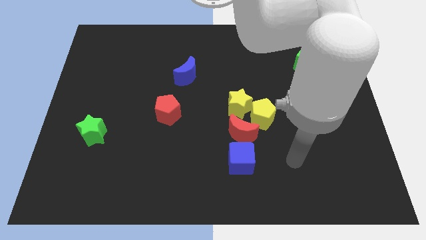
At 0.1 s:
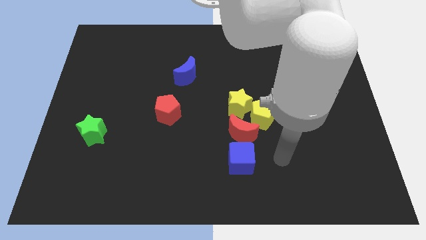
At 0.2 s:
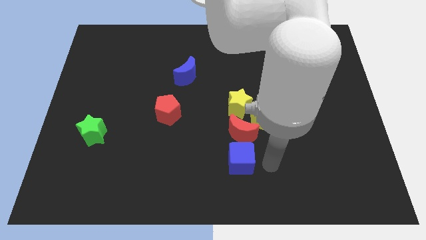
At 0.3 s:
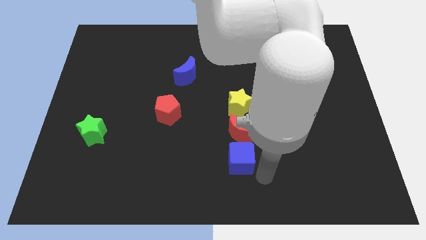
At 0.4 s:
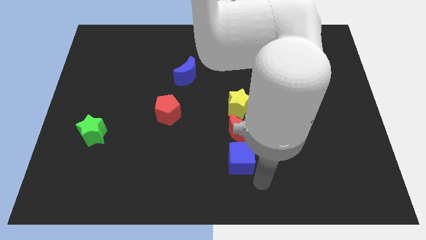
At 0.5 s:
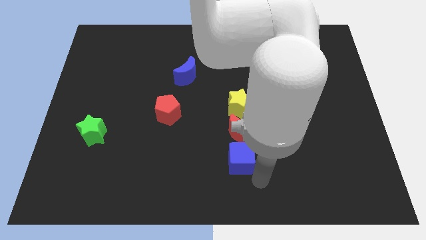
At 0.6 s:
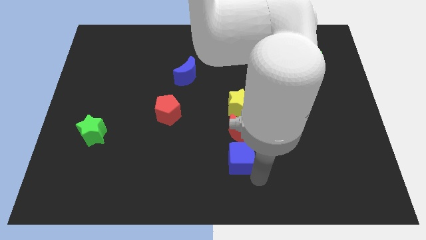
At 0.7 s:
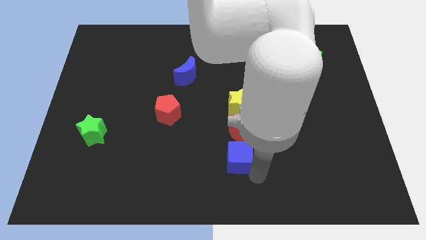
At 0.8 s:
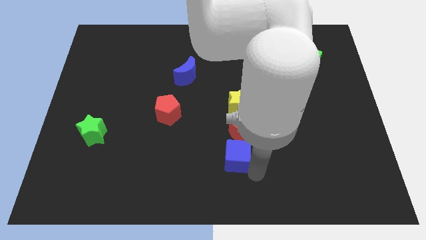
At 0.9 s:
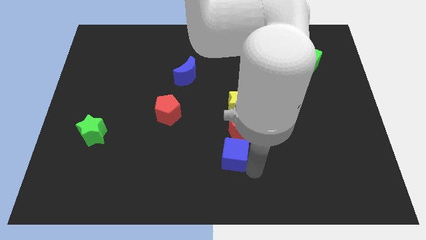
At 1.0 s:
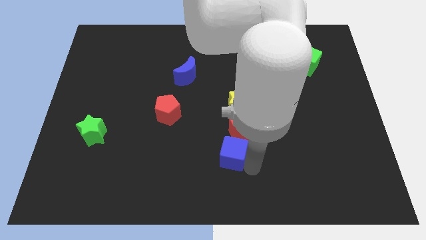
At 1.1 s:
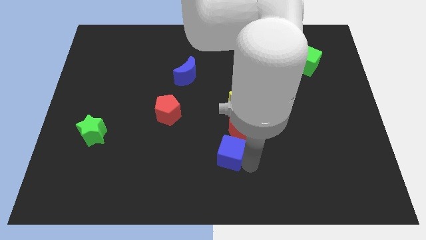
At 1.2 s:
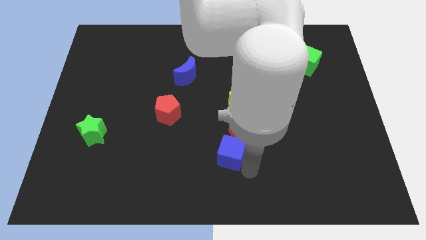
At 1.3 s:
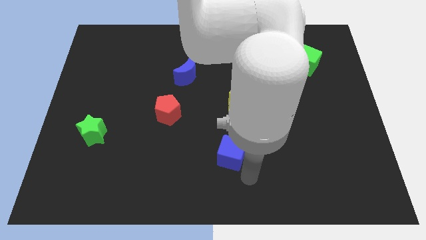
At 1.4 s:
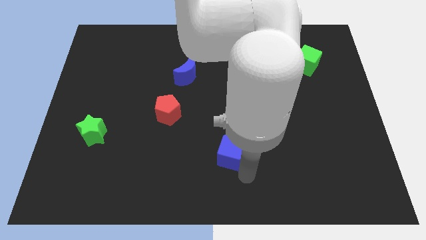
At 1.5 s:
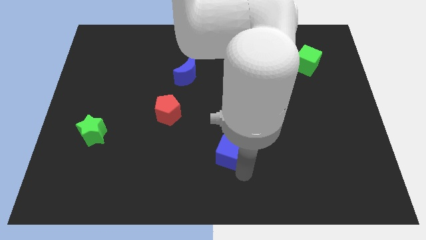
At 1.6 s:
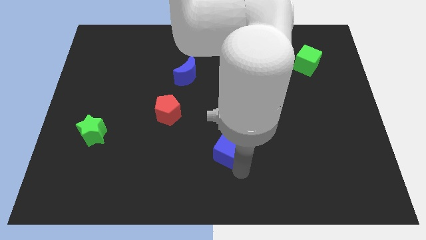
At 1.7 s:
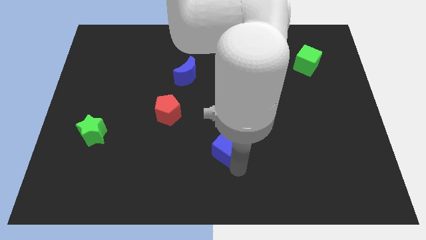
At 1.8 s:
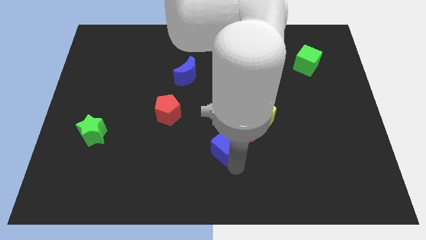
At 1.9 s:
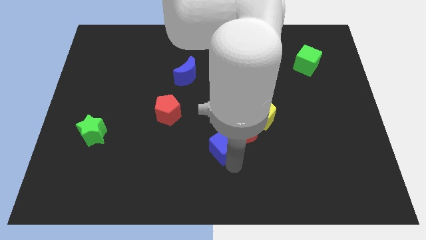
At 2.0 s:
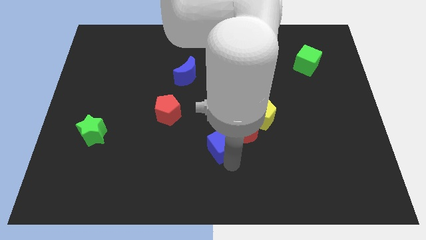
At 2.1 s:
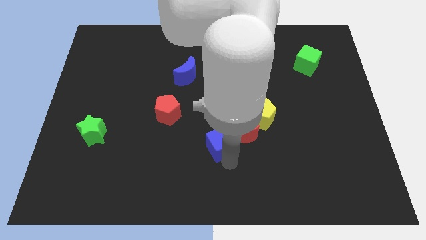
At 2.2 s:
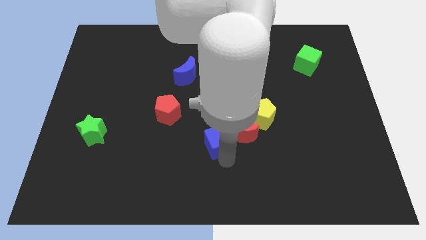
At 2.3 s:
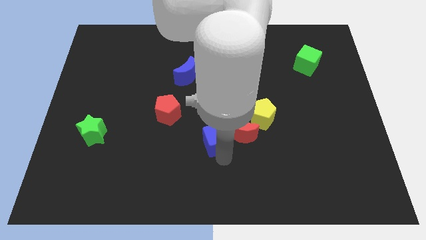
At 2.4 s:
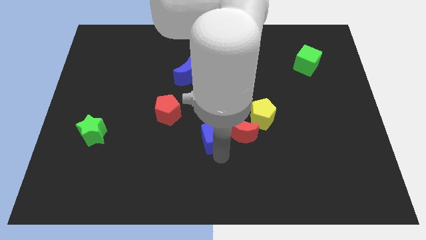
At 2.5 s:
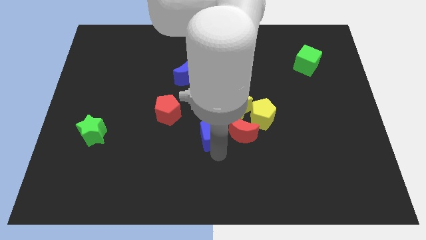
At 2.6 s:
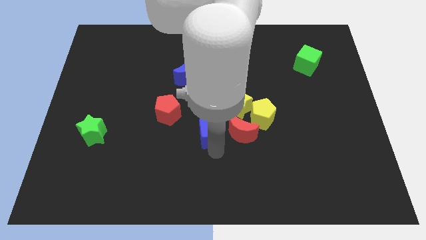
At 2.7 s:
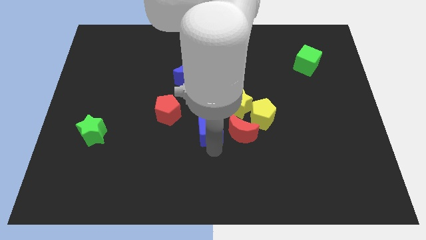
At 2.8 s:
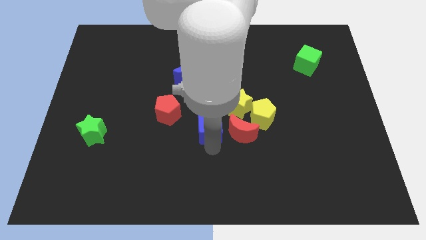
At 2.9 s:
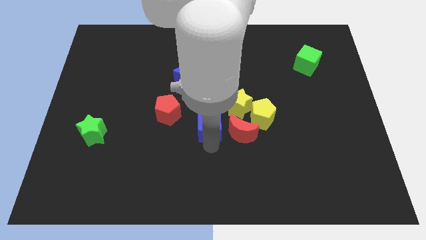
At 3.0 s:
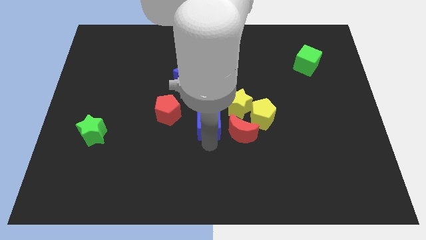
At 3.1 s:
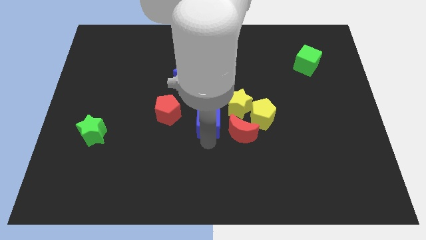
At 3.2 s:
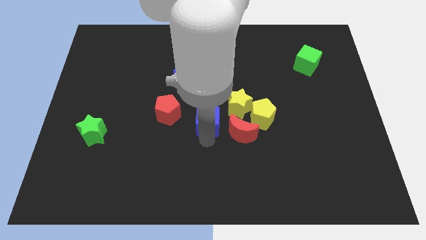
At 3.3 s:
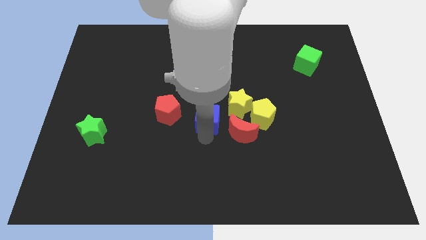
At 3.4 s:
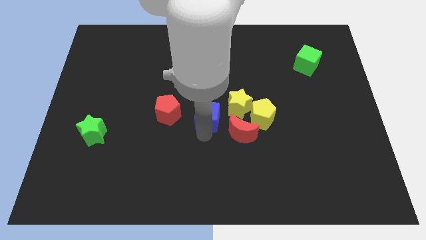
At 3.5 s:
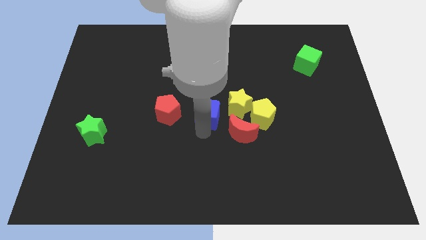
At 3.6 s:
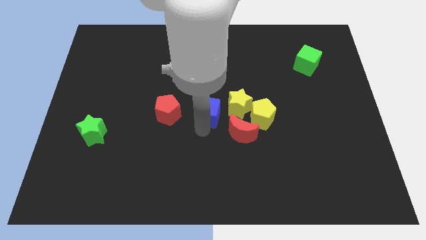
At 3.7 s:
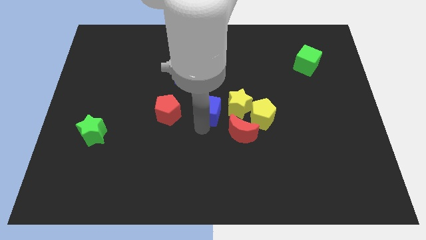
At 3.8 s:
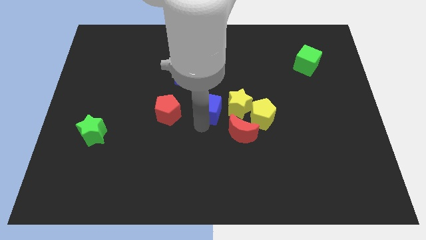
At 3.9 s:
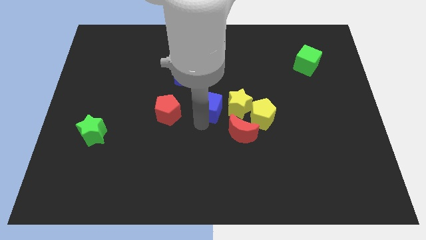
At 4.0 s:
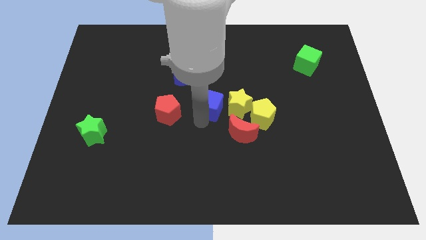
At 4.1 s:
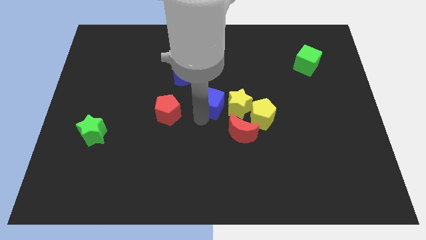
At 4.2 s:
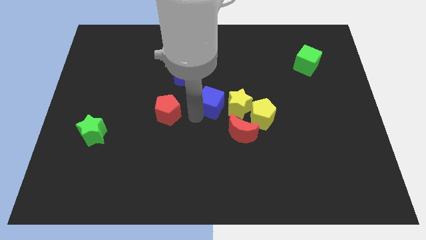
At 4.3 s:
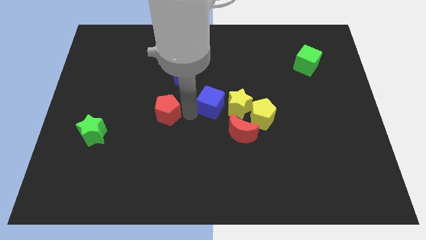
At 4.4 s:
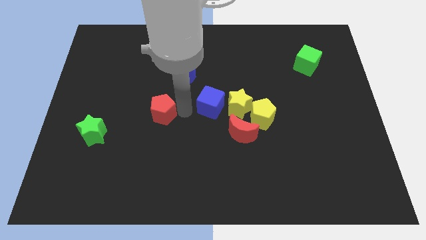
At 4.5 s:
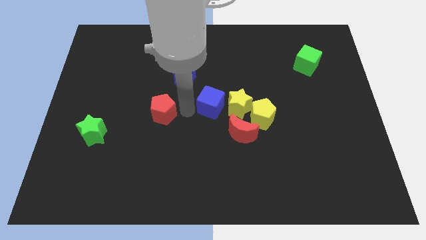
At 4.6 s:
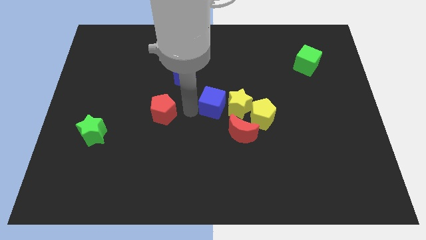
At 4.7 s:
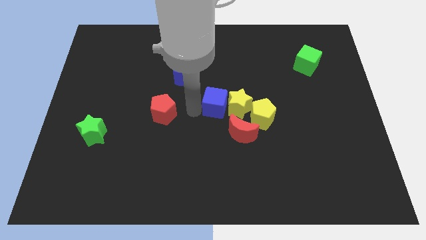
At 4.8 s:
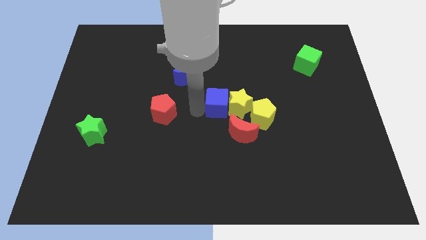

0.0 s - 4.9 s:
push the blue cube to the top left of the yellow pentagon

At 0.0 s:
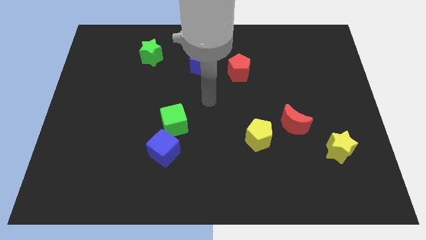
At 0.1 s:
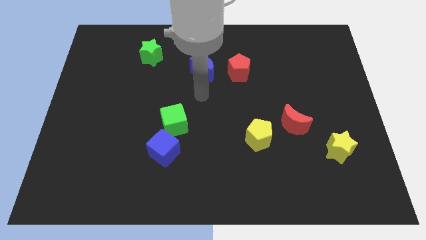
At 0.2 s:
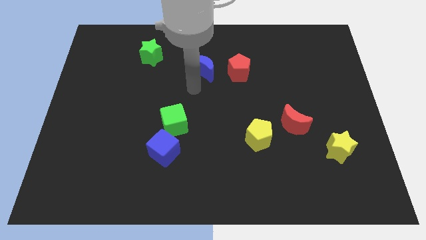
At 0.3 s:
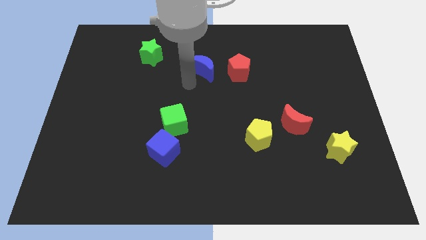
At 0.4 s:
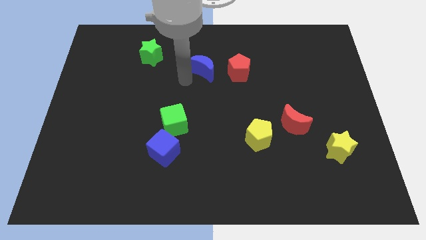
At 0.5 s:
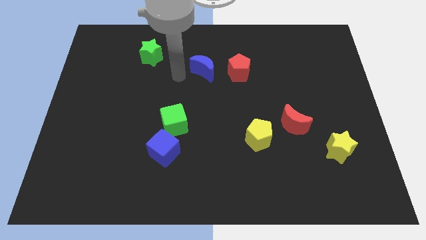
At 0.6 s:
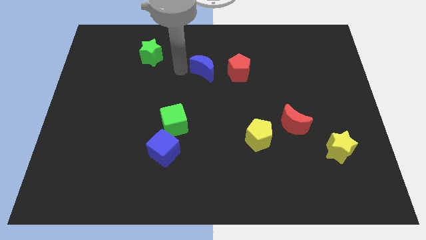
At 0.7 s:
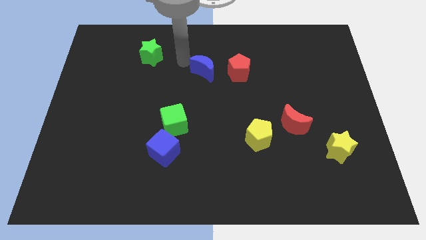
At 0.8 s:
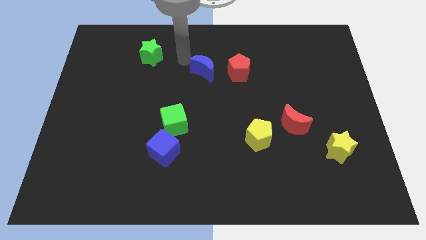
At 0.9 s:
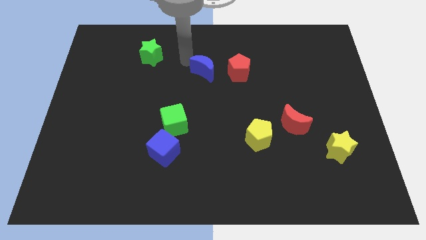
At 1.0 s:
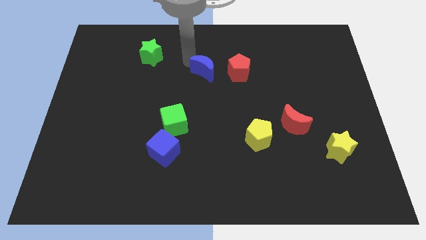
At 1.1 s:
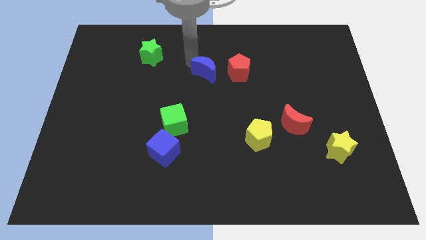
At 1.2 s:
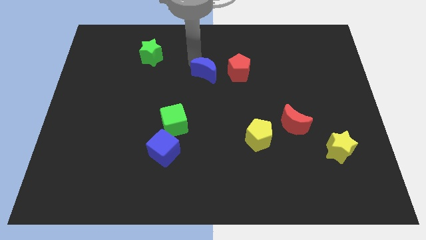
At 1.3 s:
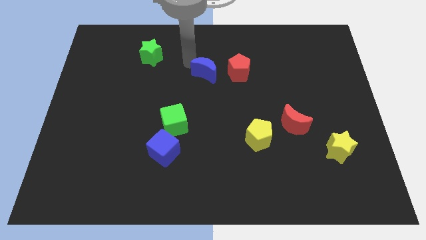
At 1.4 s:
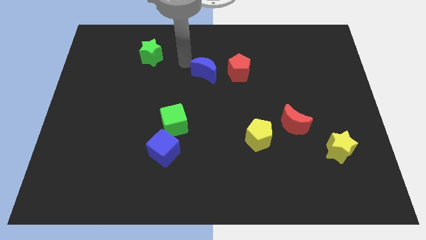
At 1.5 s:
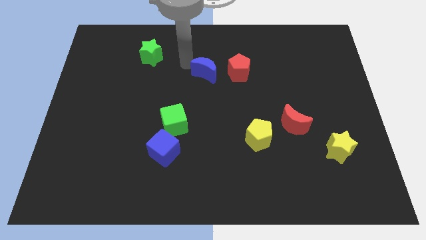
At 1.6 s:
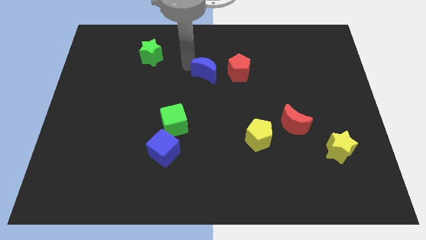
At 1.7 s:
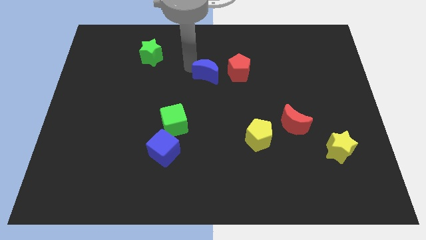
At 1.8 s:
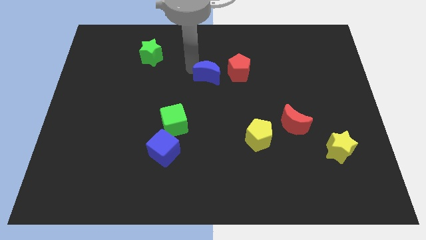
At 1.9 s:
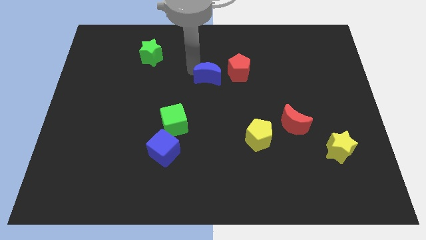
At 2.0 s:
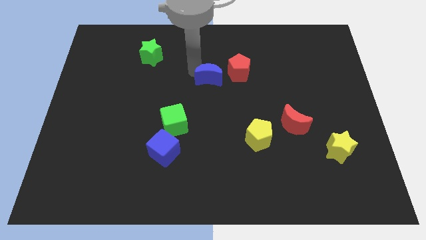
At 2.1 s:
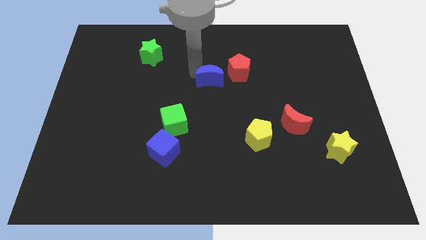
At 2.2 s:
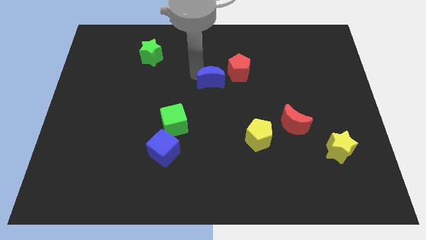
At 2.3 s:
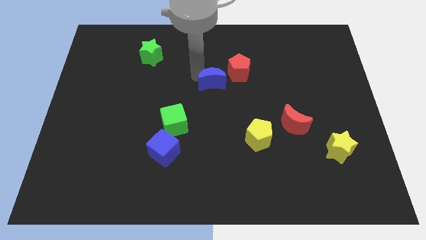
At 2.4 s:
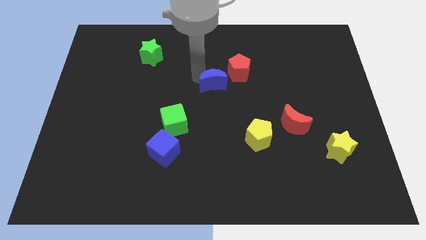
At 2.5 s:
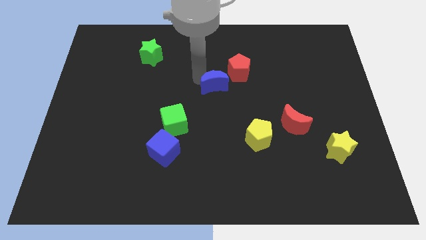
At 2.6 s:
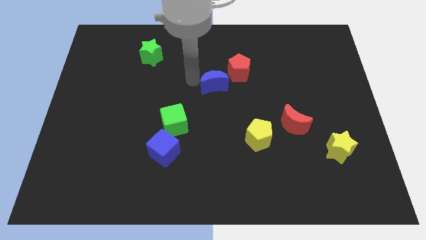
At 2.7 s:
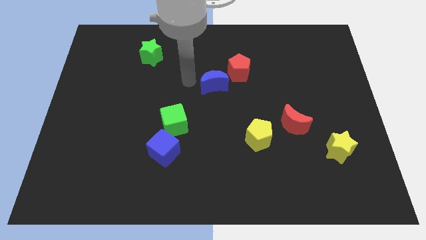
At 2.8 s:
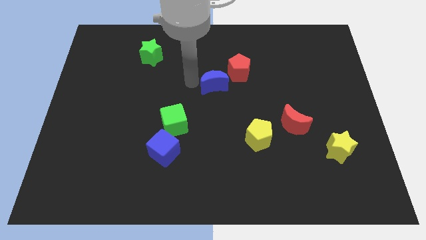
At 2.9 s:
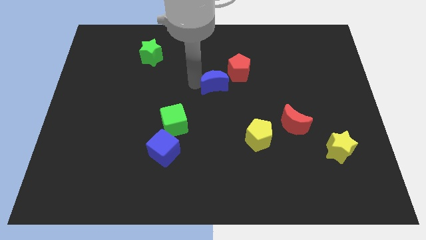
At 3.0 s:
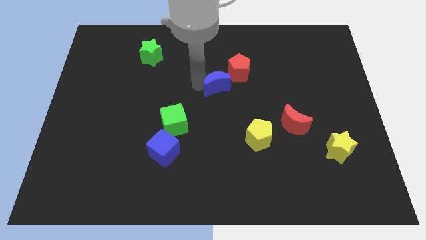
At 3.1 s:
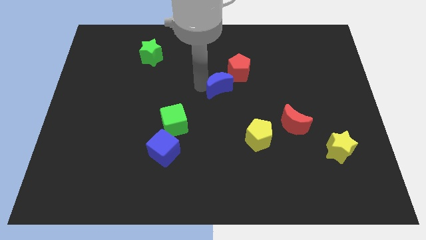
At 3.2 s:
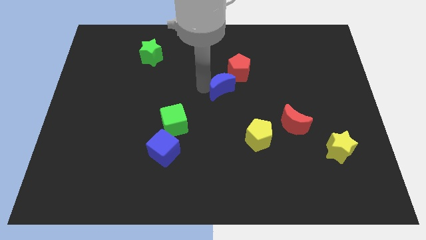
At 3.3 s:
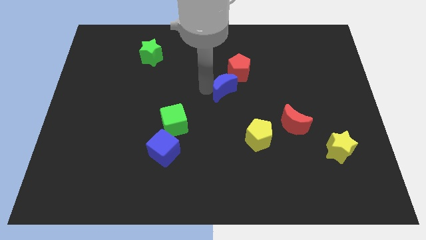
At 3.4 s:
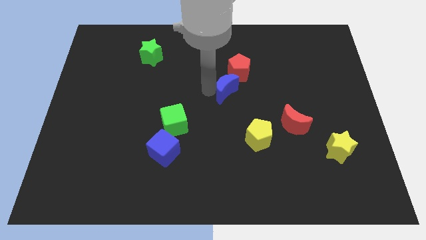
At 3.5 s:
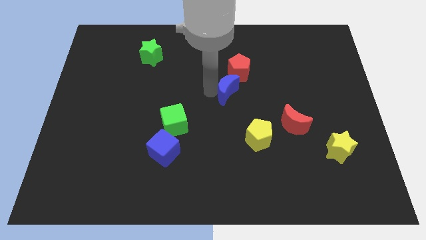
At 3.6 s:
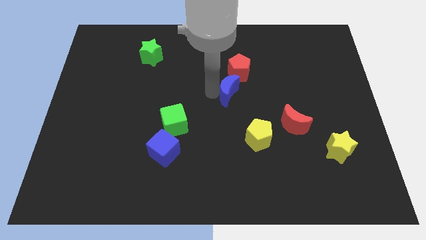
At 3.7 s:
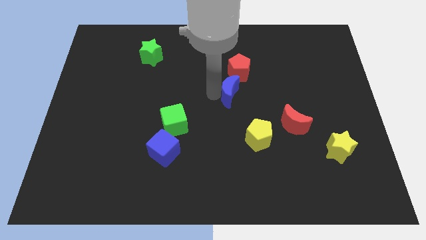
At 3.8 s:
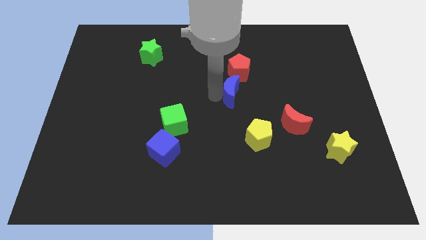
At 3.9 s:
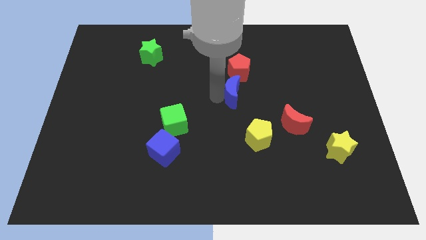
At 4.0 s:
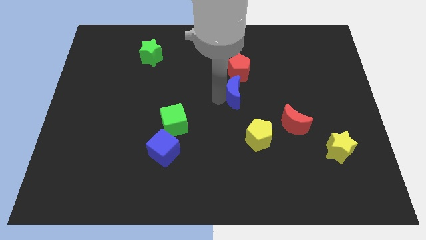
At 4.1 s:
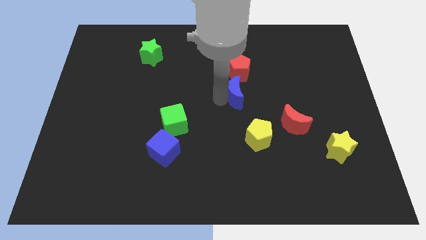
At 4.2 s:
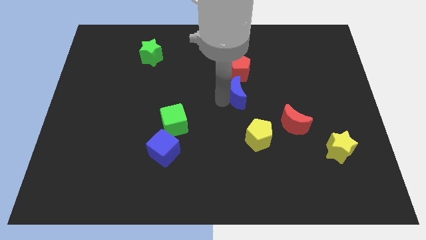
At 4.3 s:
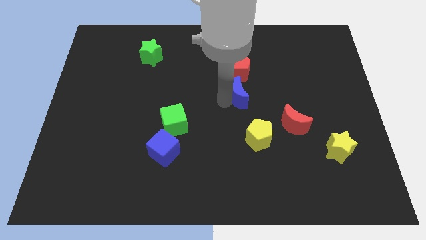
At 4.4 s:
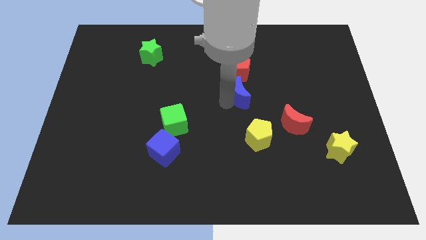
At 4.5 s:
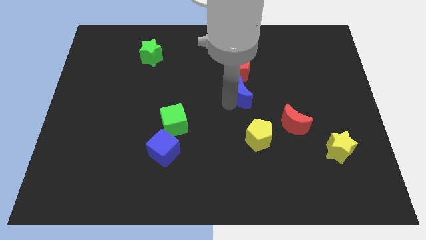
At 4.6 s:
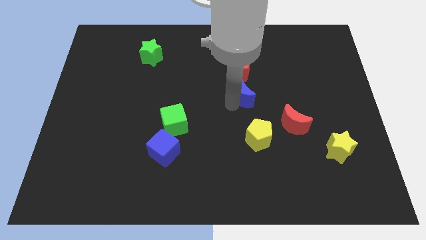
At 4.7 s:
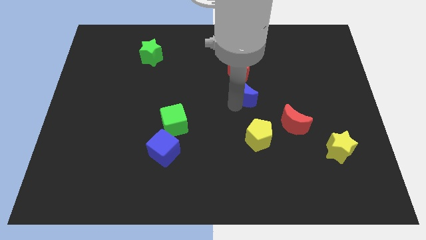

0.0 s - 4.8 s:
slide the blue moon diagonally down and to the right of the red pentagon
